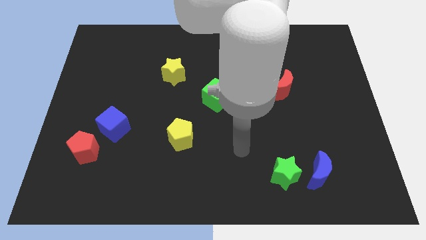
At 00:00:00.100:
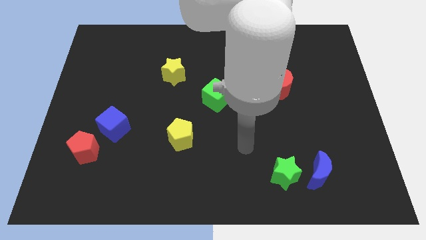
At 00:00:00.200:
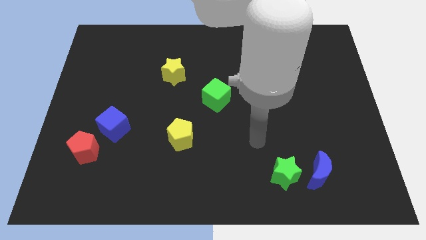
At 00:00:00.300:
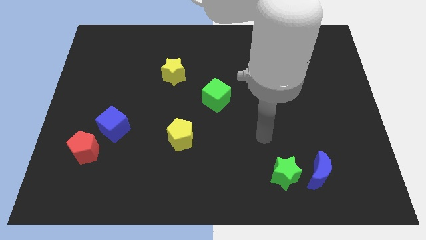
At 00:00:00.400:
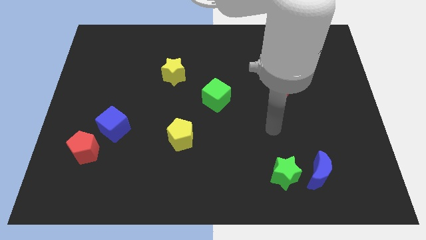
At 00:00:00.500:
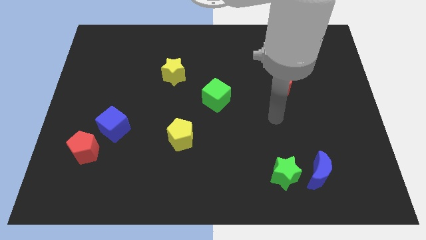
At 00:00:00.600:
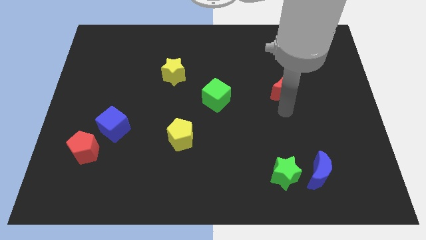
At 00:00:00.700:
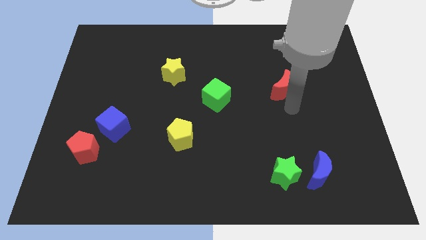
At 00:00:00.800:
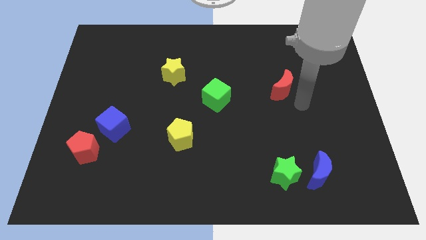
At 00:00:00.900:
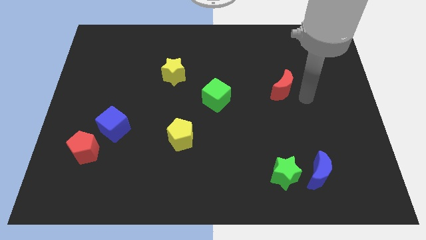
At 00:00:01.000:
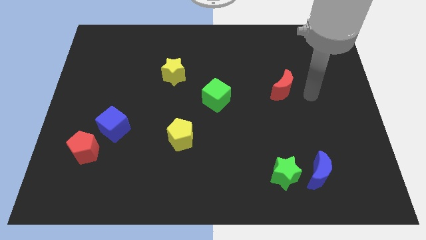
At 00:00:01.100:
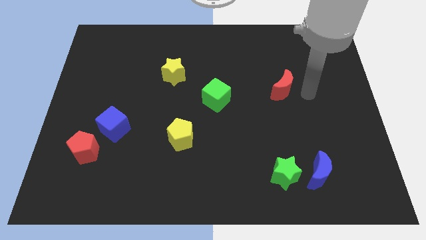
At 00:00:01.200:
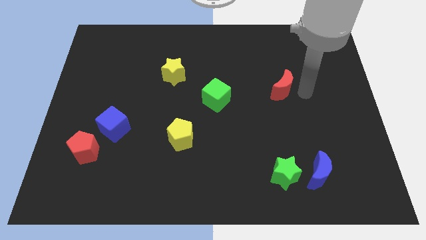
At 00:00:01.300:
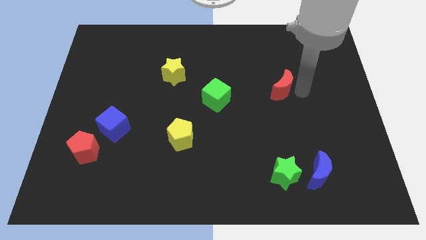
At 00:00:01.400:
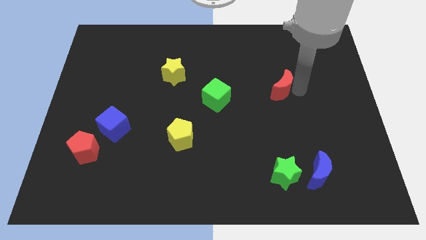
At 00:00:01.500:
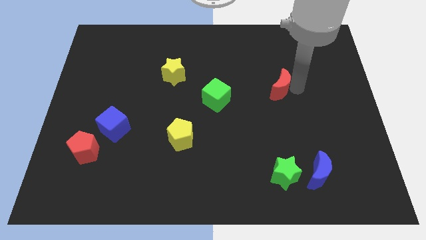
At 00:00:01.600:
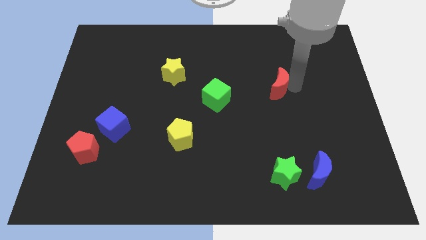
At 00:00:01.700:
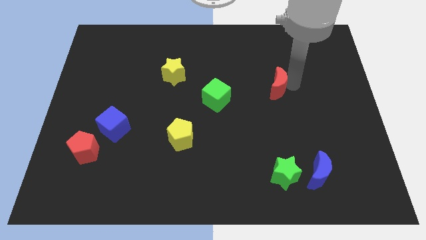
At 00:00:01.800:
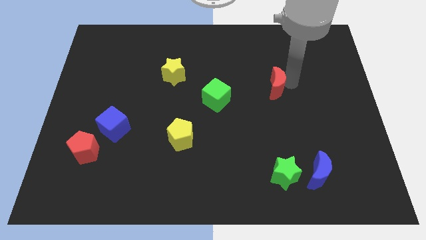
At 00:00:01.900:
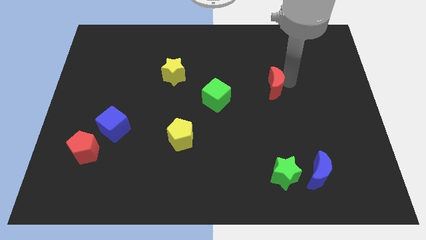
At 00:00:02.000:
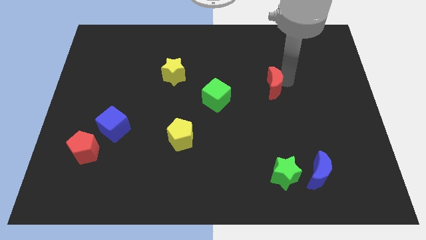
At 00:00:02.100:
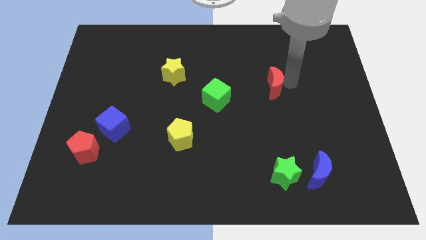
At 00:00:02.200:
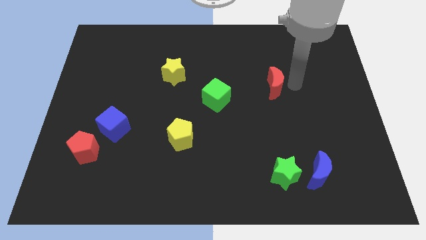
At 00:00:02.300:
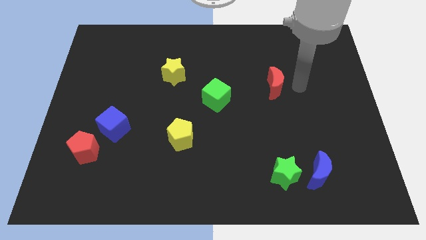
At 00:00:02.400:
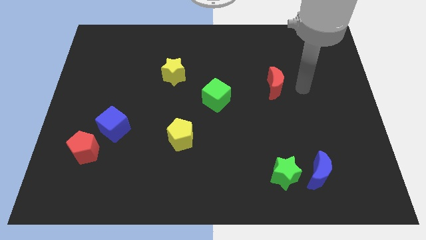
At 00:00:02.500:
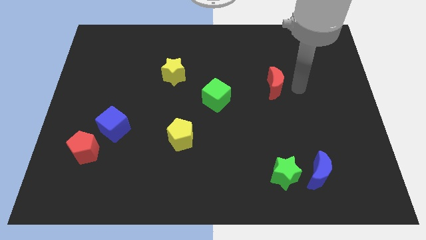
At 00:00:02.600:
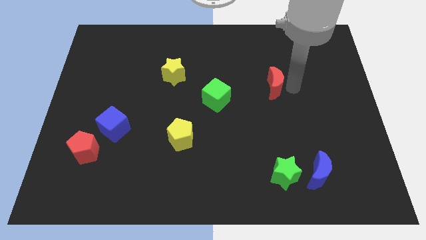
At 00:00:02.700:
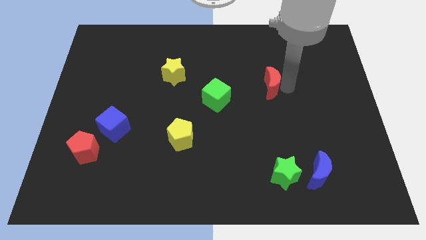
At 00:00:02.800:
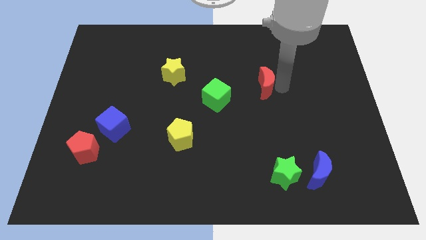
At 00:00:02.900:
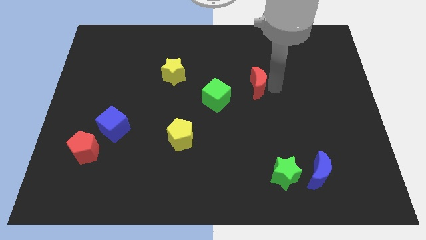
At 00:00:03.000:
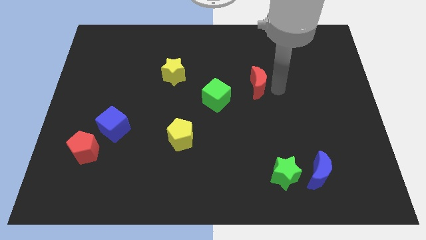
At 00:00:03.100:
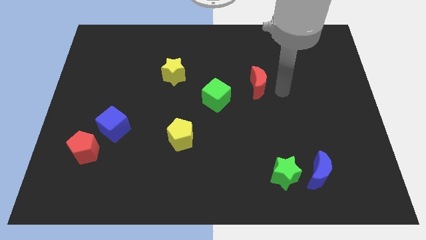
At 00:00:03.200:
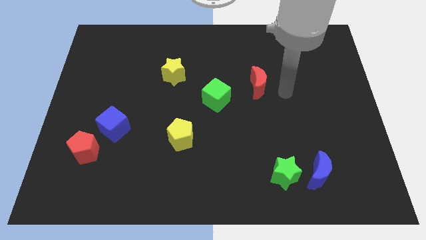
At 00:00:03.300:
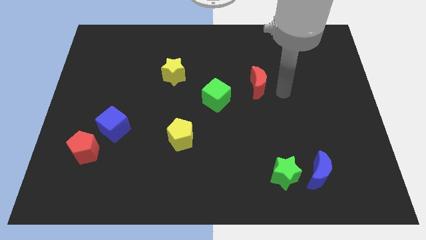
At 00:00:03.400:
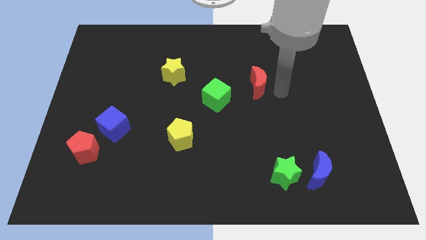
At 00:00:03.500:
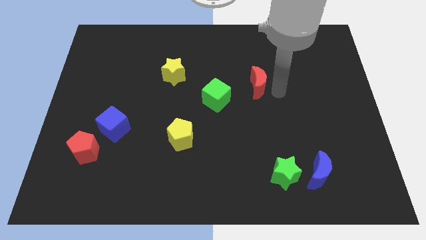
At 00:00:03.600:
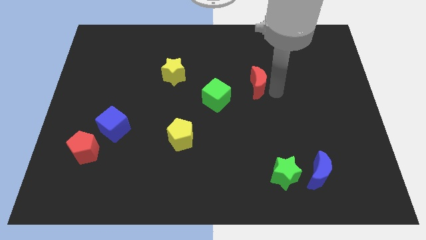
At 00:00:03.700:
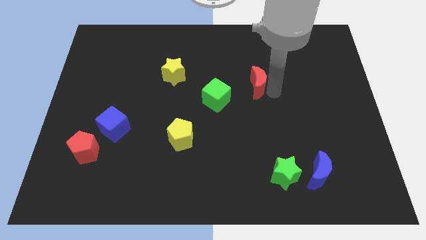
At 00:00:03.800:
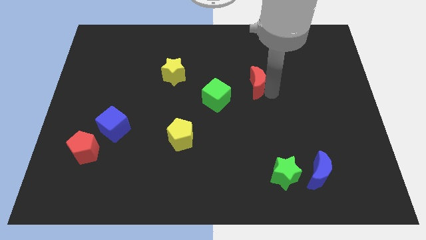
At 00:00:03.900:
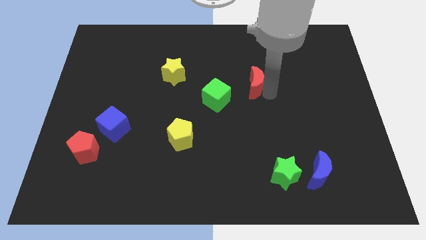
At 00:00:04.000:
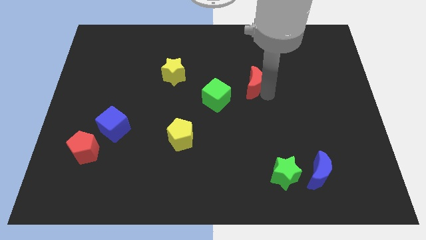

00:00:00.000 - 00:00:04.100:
push the red moon a little to the left

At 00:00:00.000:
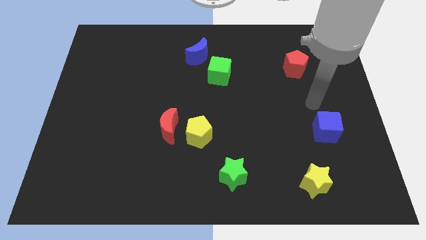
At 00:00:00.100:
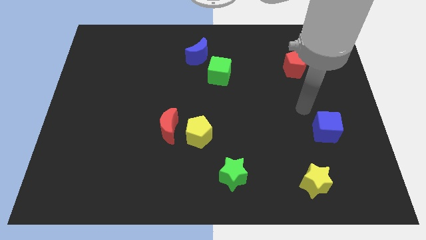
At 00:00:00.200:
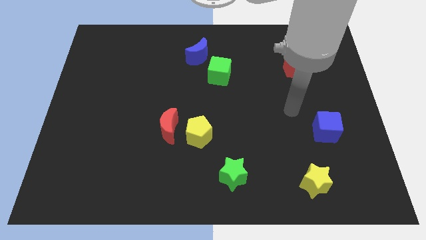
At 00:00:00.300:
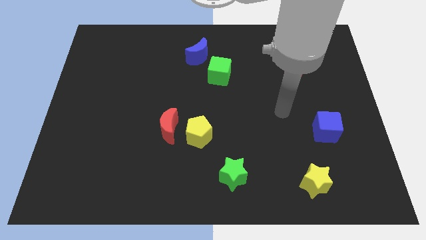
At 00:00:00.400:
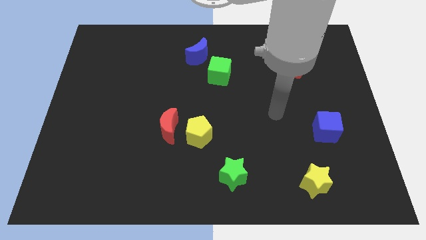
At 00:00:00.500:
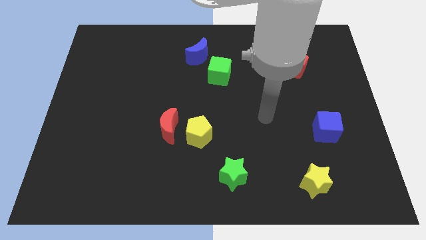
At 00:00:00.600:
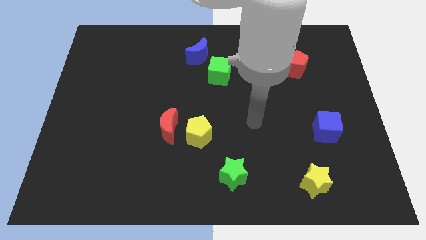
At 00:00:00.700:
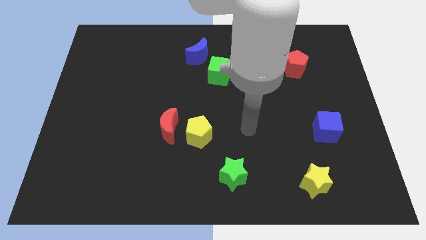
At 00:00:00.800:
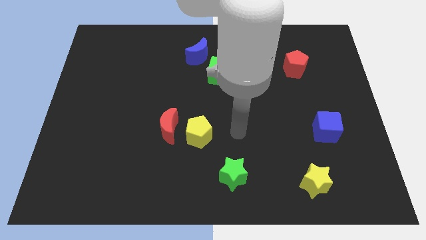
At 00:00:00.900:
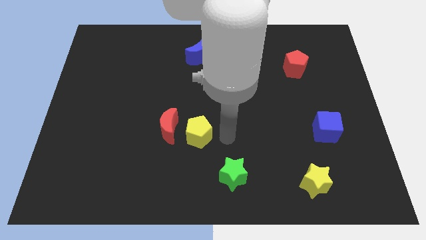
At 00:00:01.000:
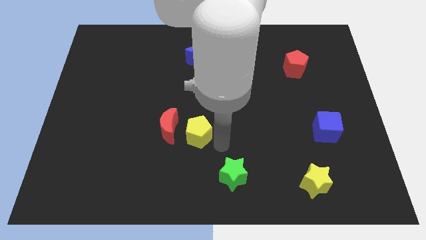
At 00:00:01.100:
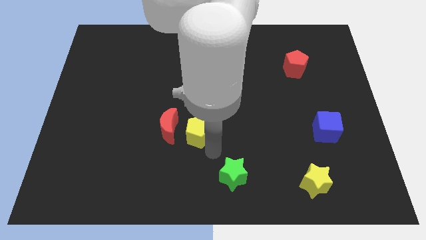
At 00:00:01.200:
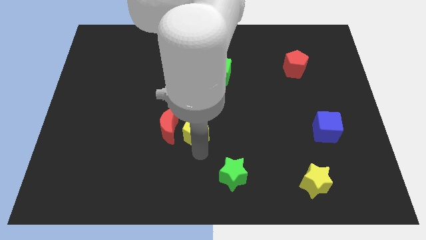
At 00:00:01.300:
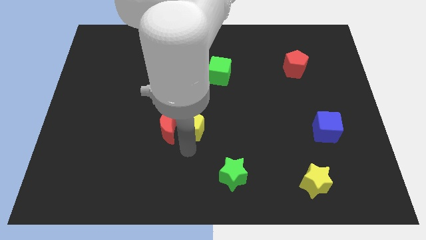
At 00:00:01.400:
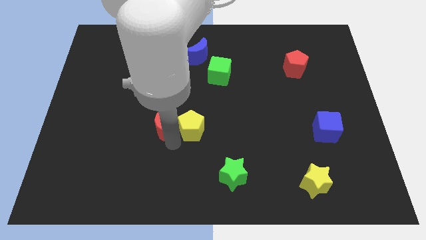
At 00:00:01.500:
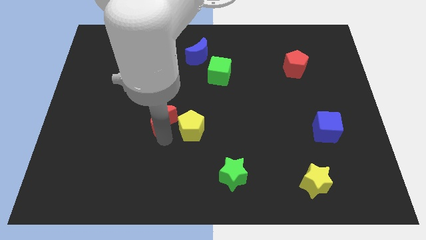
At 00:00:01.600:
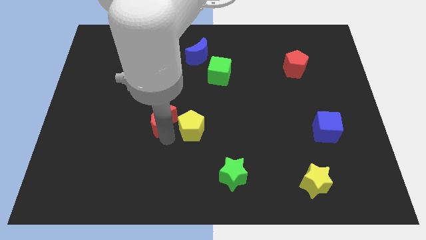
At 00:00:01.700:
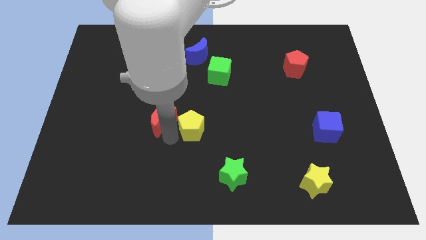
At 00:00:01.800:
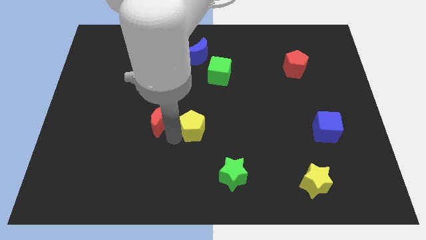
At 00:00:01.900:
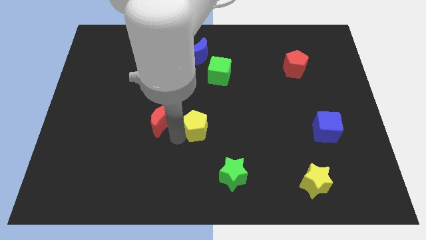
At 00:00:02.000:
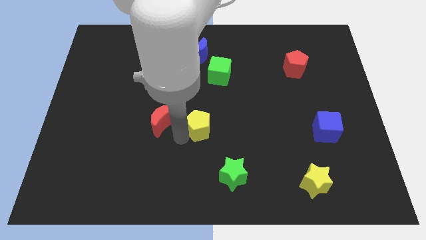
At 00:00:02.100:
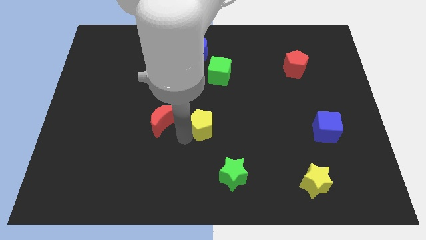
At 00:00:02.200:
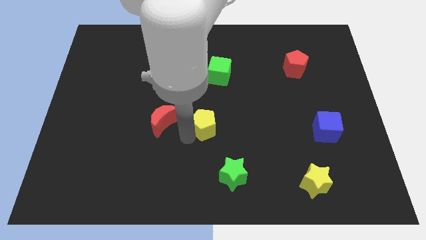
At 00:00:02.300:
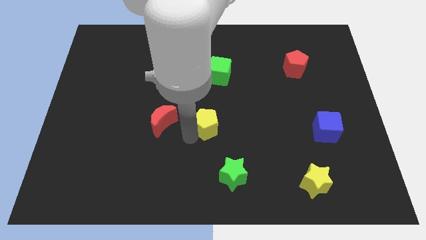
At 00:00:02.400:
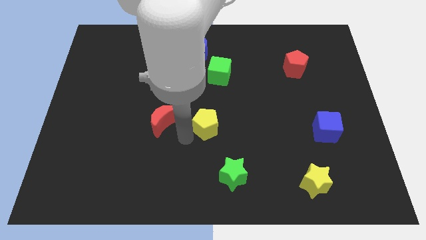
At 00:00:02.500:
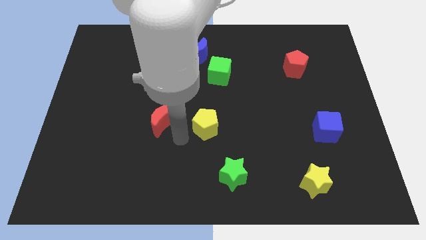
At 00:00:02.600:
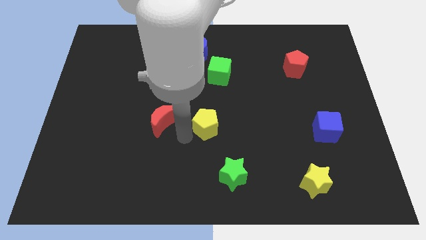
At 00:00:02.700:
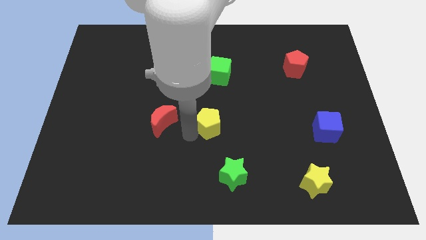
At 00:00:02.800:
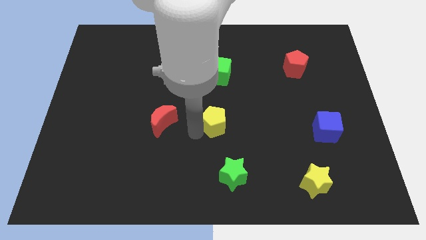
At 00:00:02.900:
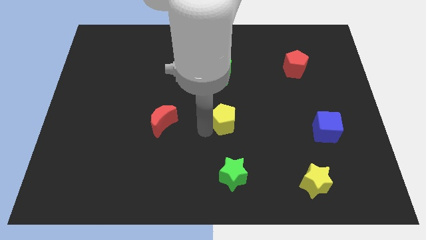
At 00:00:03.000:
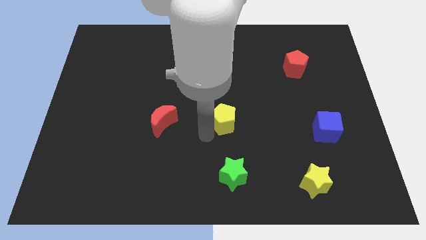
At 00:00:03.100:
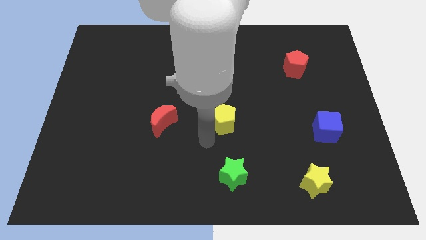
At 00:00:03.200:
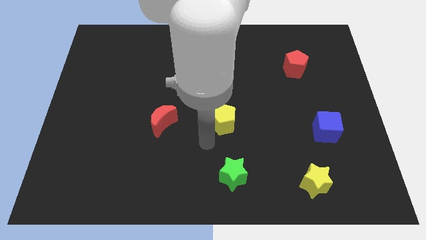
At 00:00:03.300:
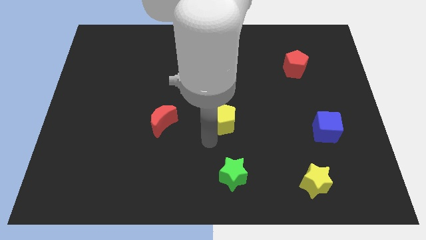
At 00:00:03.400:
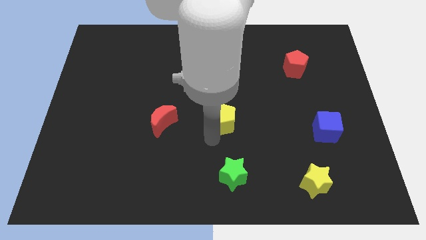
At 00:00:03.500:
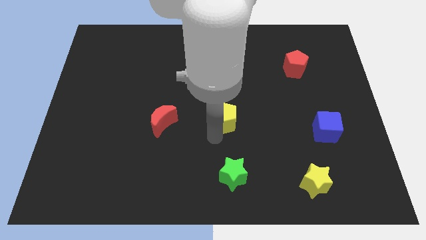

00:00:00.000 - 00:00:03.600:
move the yellow pentagon diagonally up and right somewhat

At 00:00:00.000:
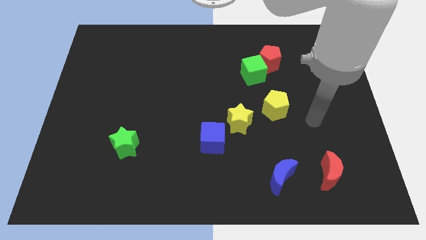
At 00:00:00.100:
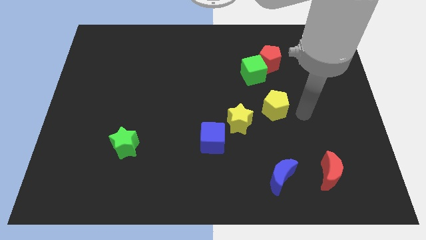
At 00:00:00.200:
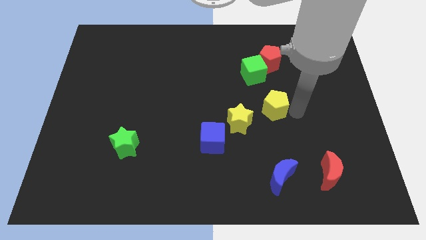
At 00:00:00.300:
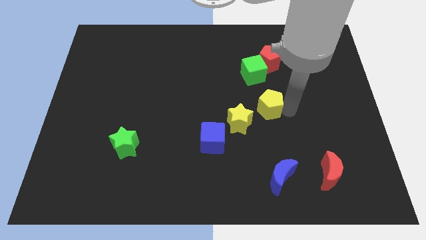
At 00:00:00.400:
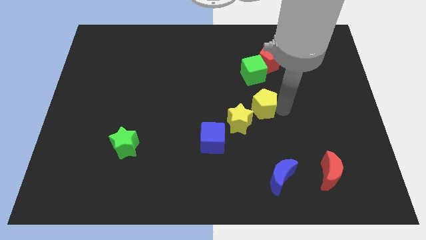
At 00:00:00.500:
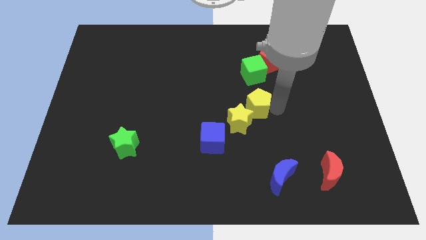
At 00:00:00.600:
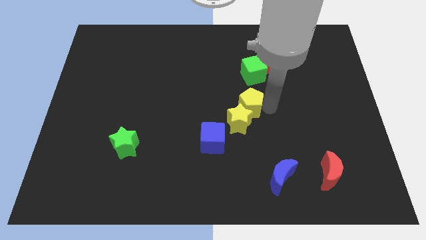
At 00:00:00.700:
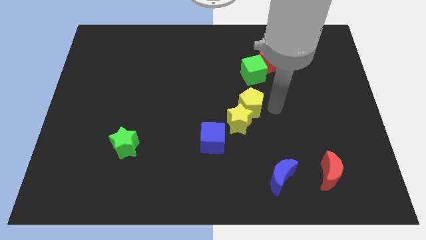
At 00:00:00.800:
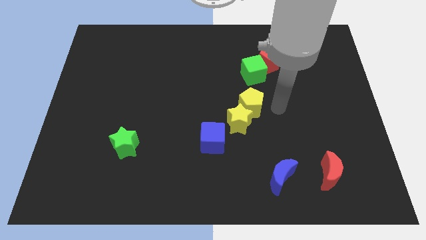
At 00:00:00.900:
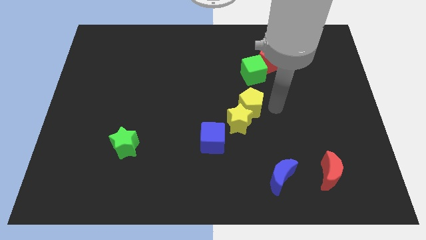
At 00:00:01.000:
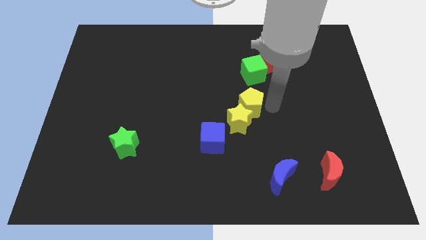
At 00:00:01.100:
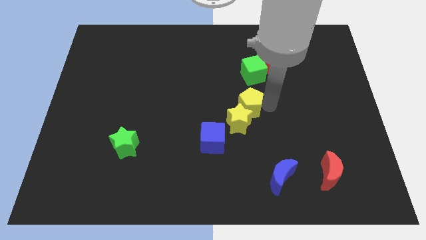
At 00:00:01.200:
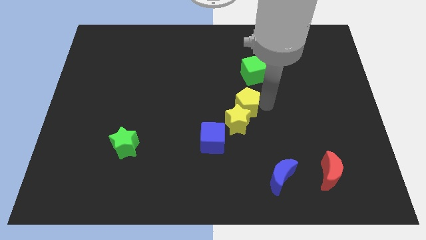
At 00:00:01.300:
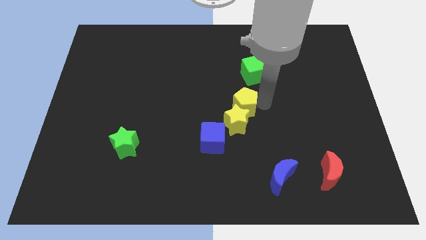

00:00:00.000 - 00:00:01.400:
move the yellow pentagon left a little bit
